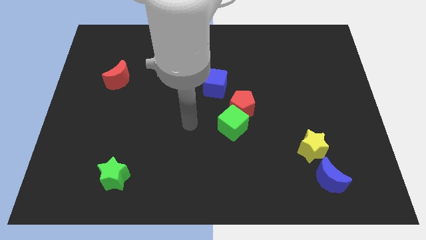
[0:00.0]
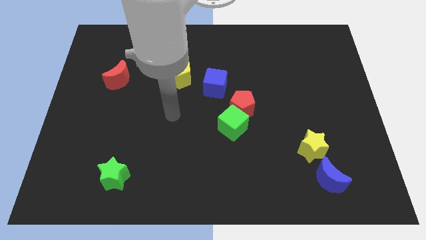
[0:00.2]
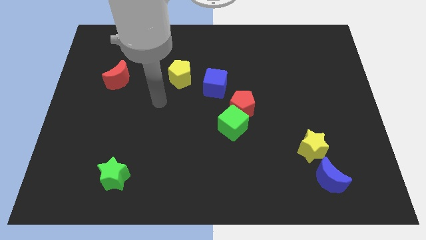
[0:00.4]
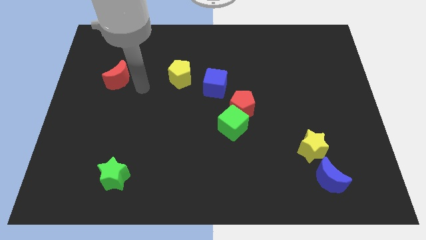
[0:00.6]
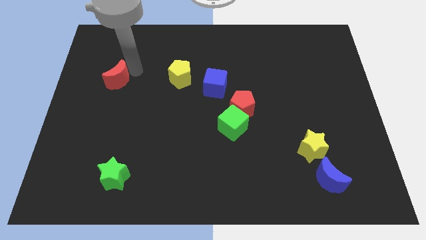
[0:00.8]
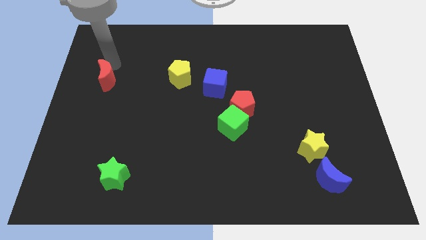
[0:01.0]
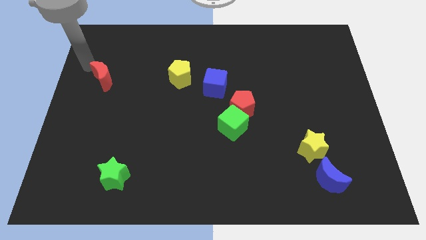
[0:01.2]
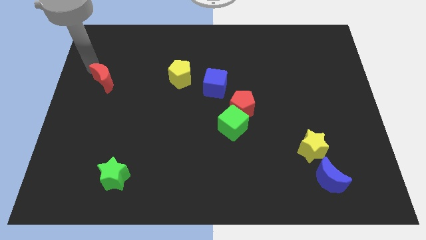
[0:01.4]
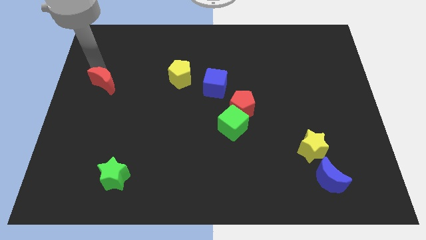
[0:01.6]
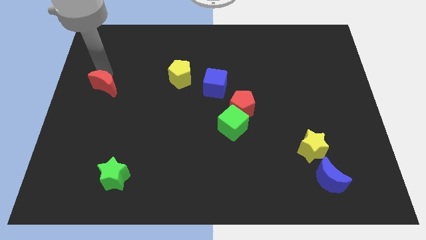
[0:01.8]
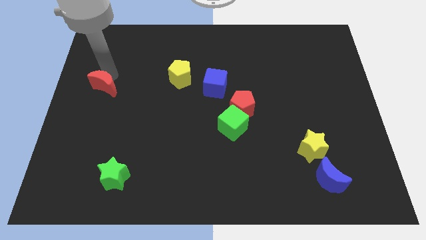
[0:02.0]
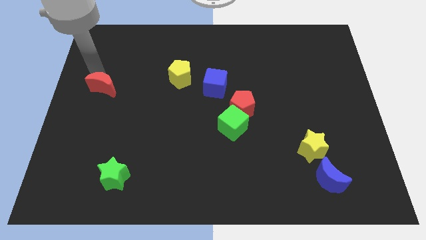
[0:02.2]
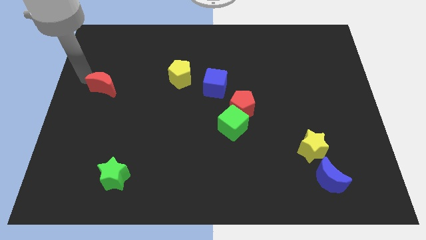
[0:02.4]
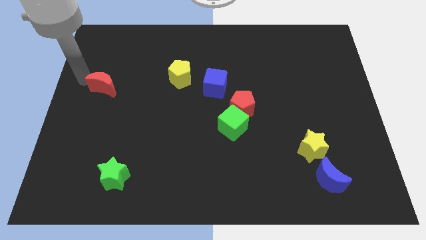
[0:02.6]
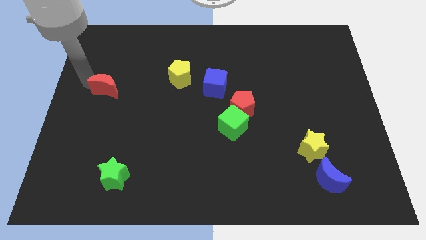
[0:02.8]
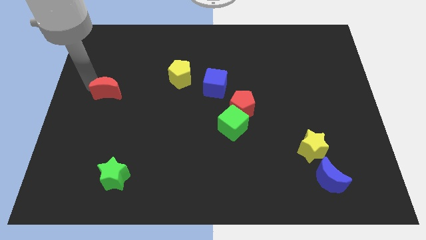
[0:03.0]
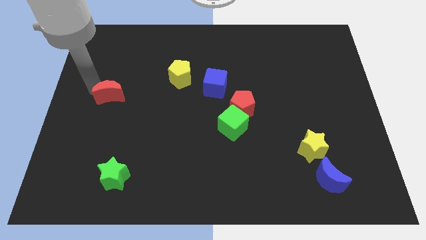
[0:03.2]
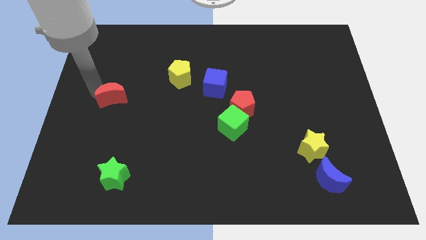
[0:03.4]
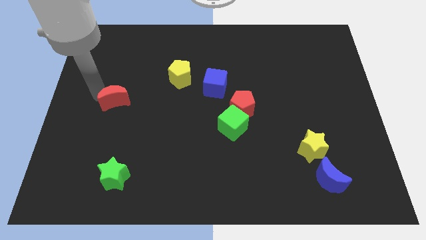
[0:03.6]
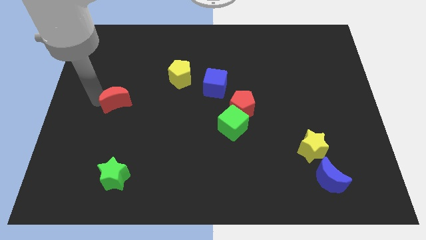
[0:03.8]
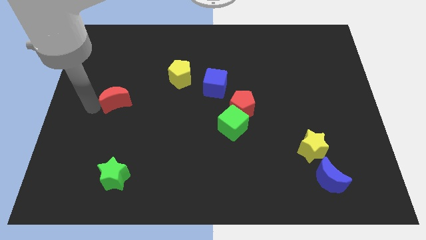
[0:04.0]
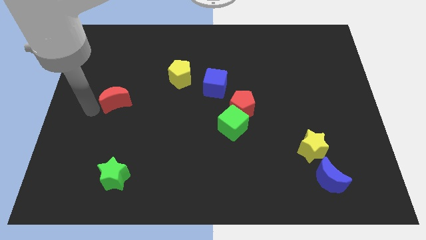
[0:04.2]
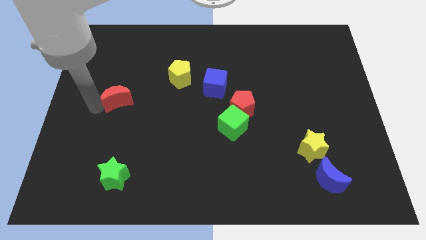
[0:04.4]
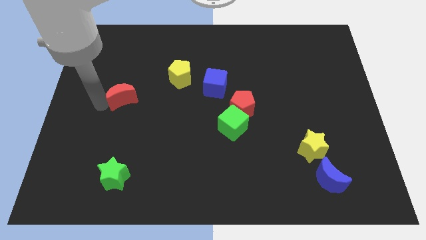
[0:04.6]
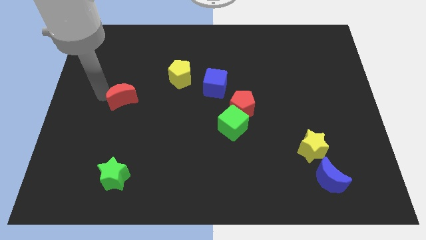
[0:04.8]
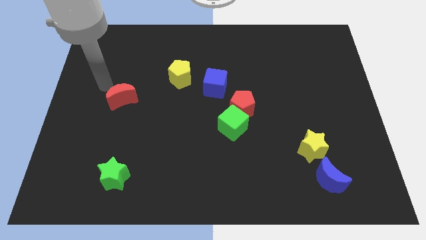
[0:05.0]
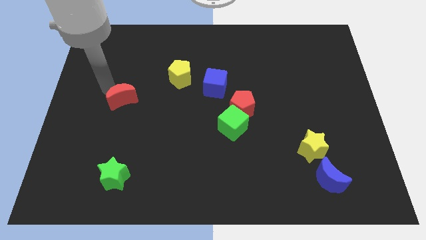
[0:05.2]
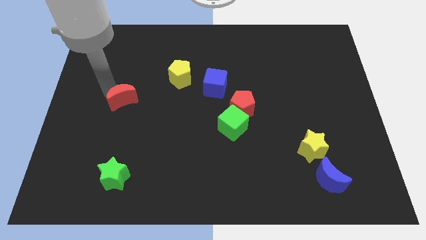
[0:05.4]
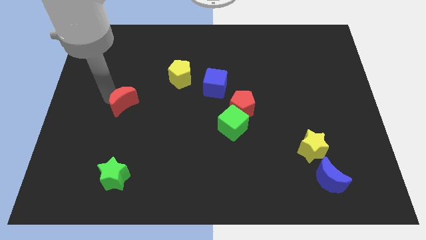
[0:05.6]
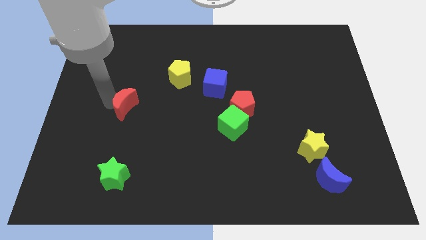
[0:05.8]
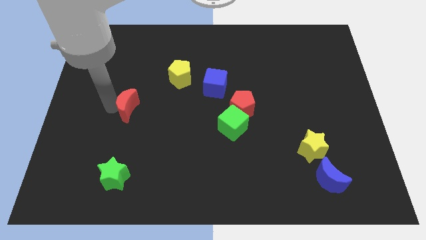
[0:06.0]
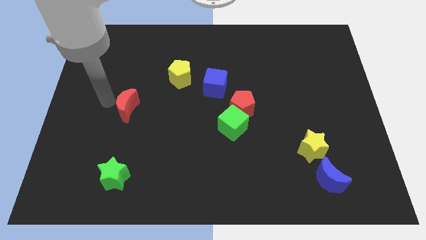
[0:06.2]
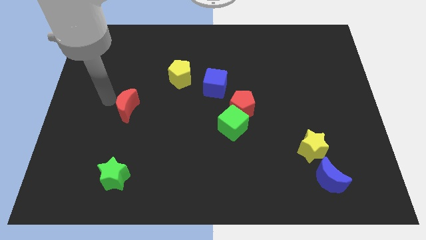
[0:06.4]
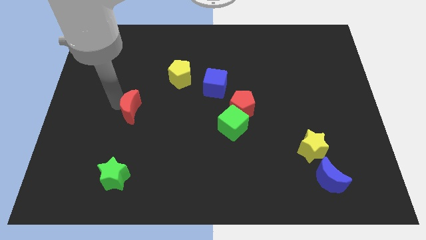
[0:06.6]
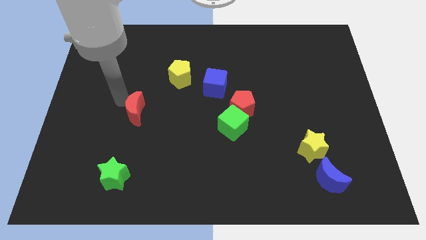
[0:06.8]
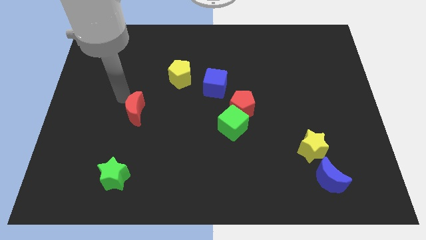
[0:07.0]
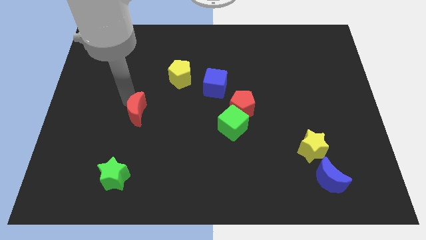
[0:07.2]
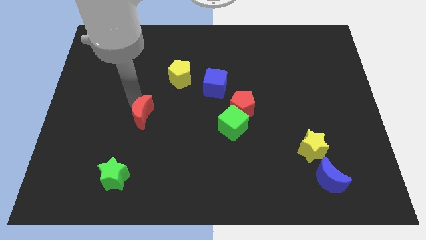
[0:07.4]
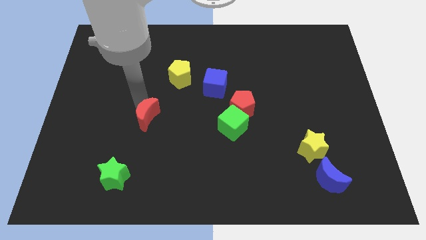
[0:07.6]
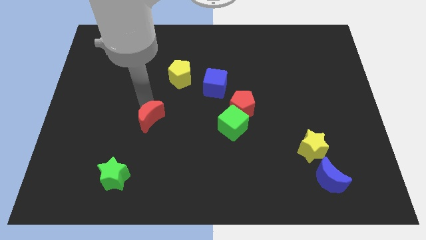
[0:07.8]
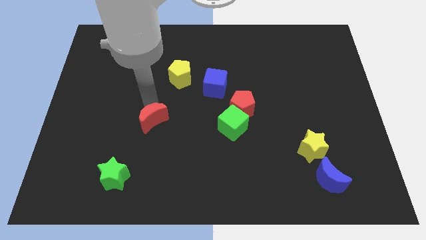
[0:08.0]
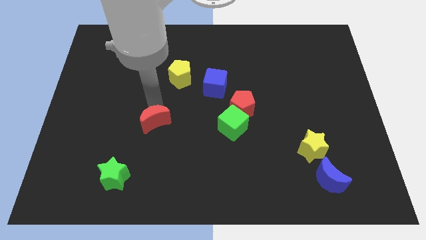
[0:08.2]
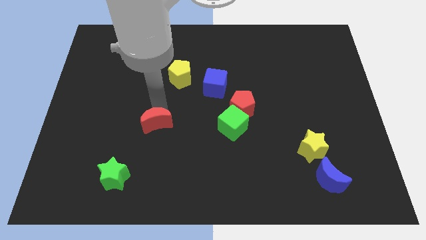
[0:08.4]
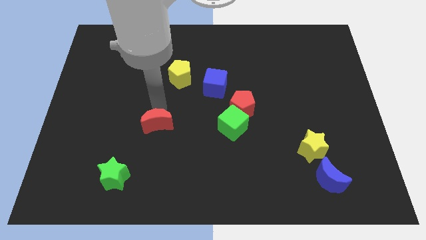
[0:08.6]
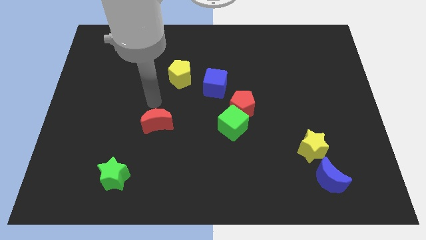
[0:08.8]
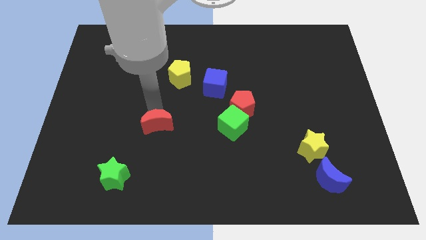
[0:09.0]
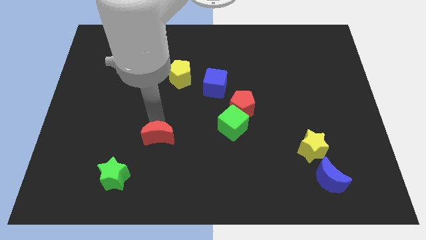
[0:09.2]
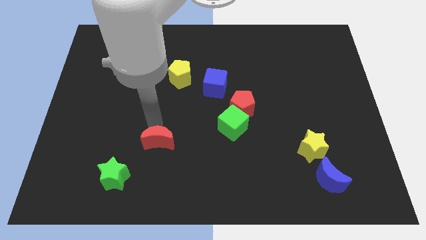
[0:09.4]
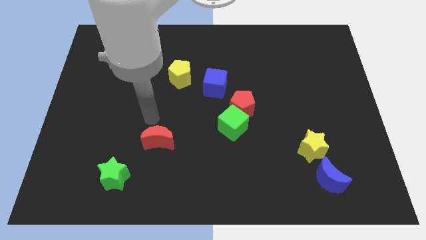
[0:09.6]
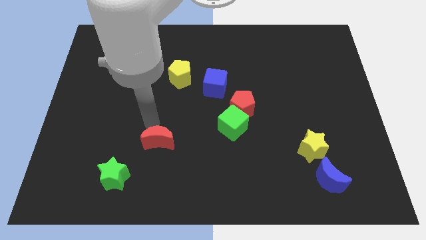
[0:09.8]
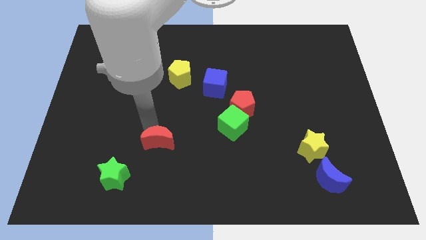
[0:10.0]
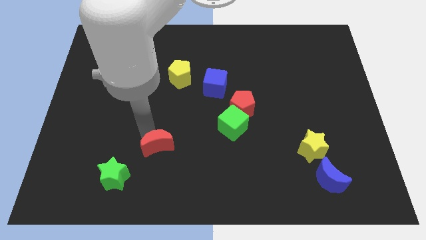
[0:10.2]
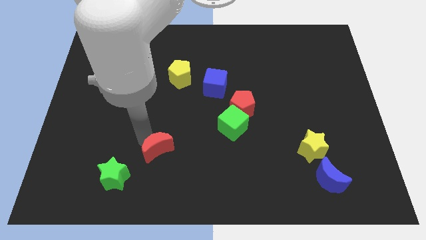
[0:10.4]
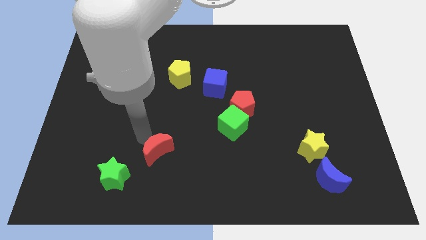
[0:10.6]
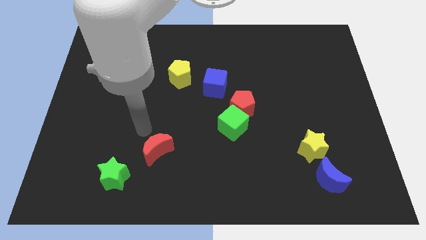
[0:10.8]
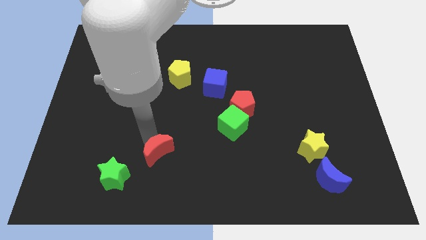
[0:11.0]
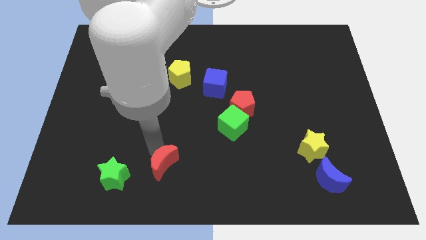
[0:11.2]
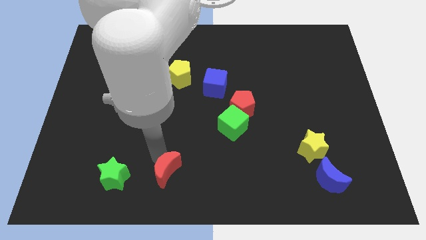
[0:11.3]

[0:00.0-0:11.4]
slide the red moon to the bottom side

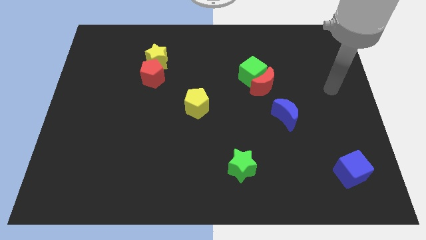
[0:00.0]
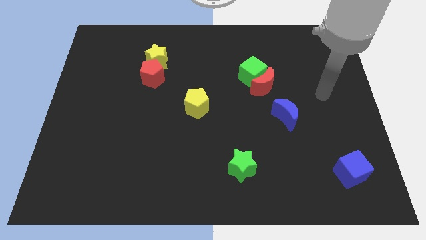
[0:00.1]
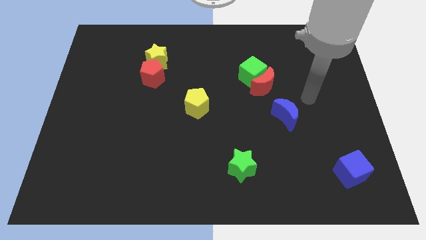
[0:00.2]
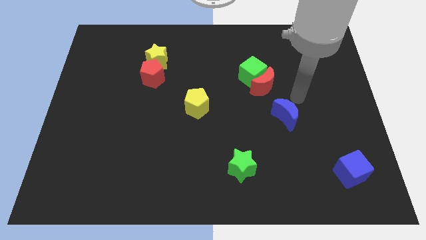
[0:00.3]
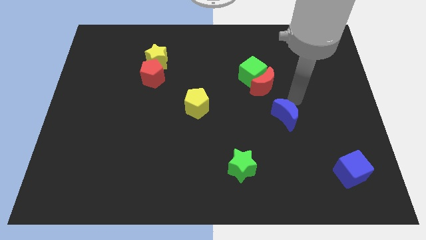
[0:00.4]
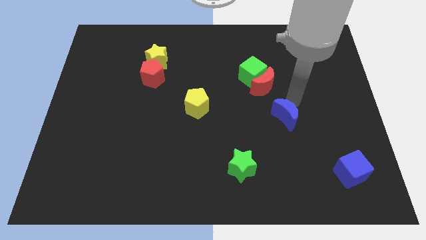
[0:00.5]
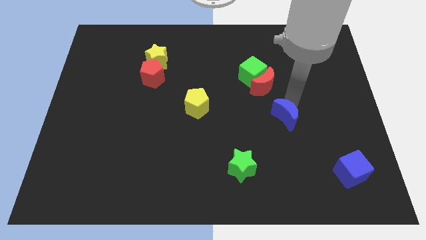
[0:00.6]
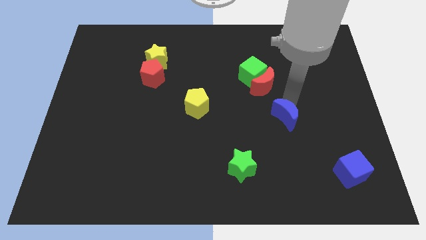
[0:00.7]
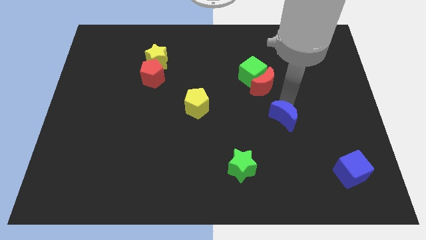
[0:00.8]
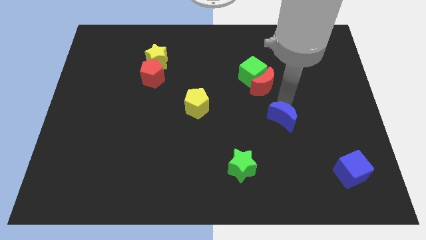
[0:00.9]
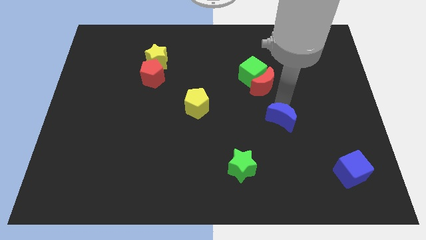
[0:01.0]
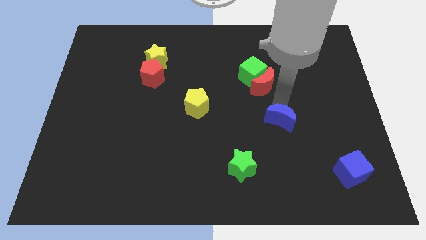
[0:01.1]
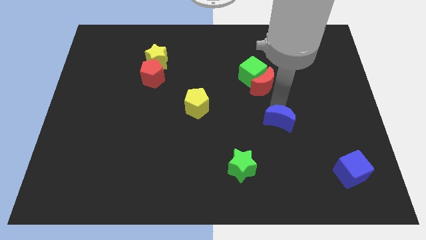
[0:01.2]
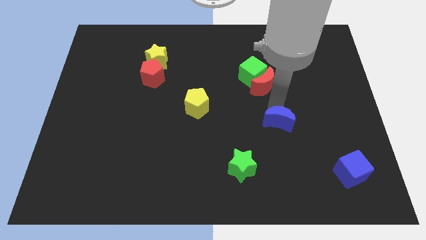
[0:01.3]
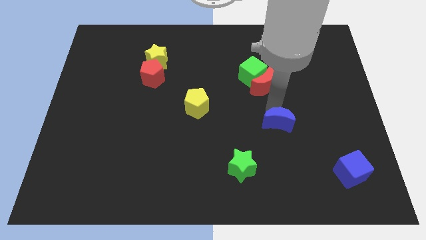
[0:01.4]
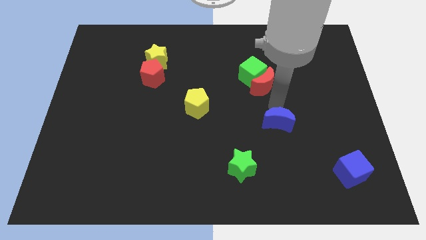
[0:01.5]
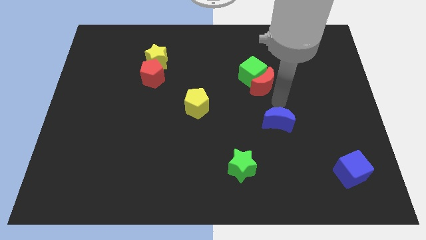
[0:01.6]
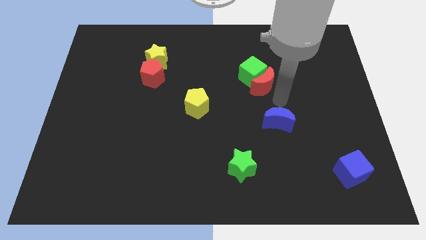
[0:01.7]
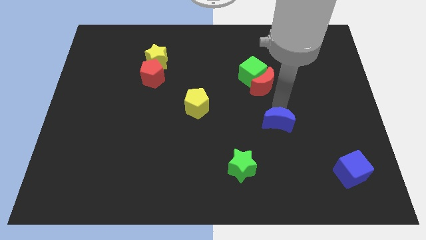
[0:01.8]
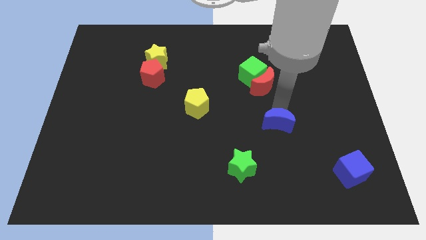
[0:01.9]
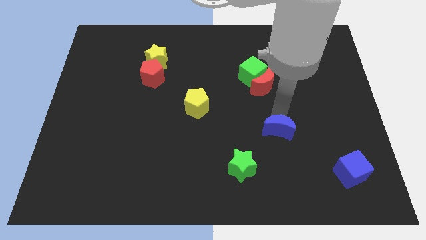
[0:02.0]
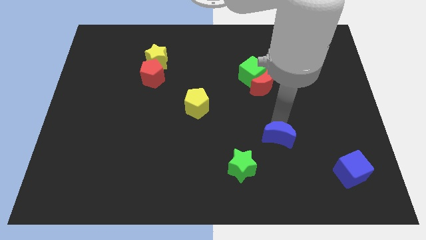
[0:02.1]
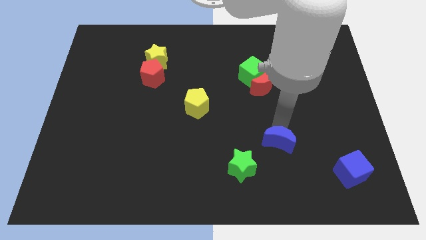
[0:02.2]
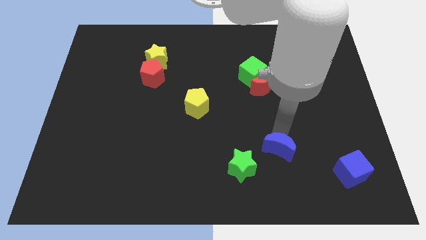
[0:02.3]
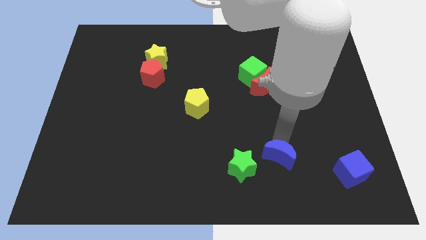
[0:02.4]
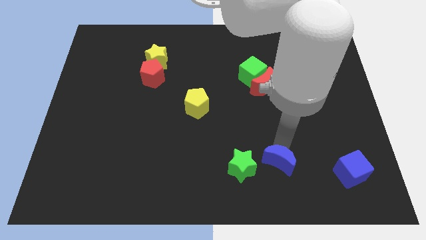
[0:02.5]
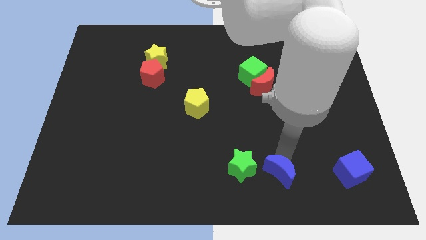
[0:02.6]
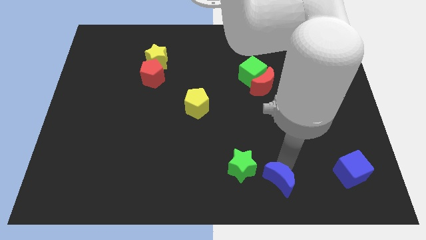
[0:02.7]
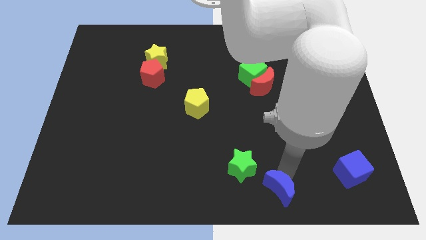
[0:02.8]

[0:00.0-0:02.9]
put the blue moon to the bottom
